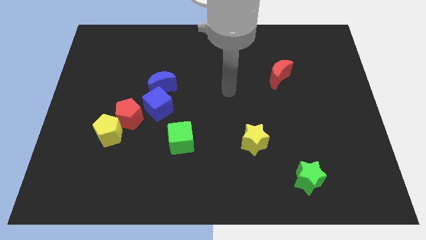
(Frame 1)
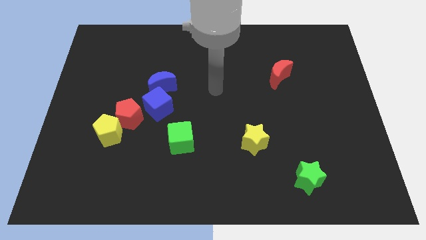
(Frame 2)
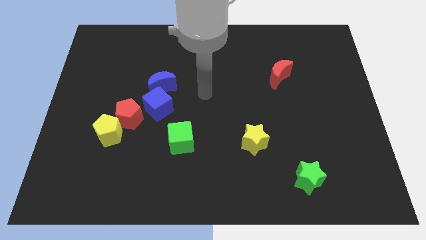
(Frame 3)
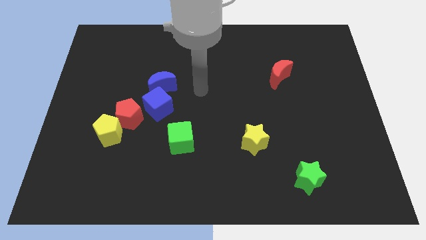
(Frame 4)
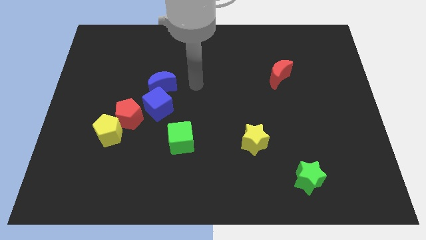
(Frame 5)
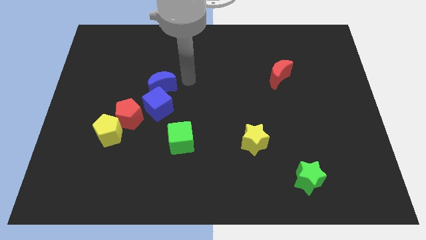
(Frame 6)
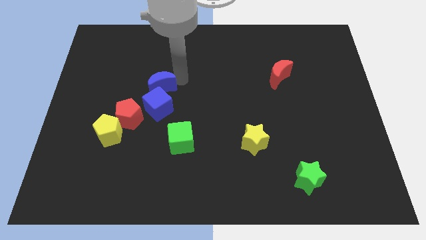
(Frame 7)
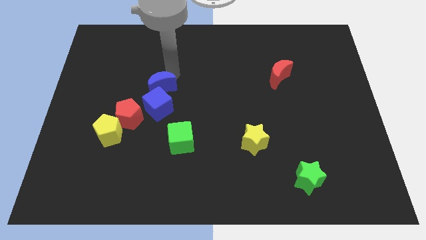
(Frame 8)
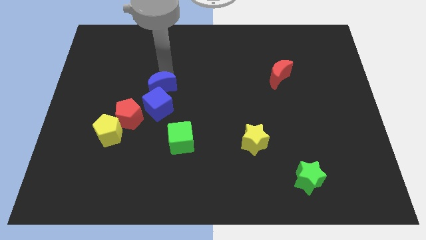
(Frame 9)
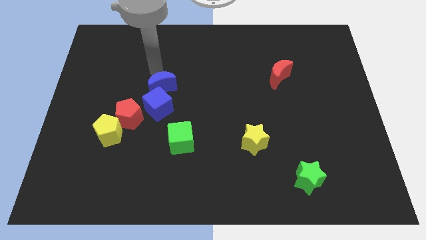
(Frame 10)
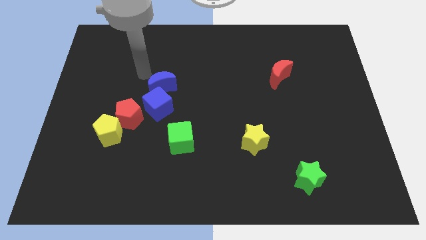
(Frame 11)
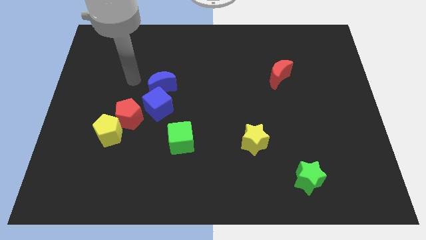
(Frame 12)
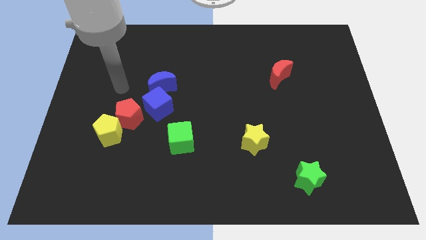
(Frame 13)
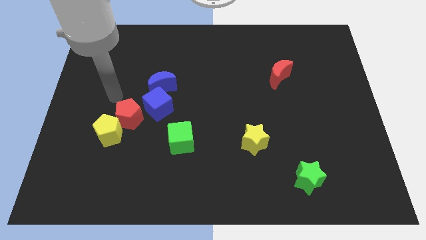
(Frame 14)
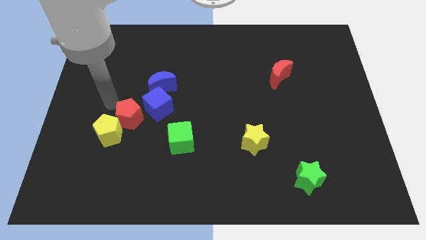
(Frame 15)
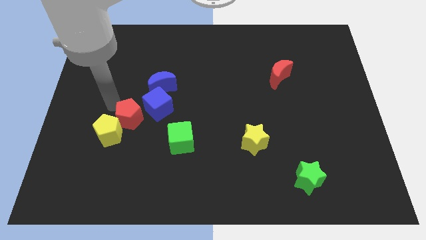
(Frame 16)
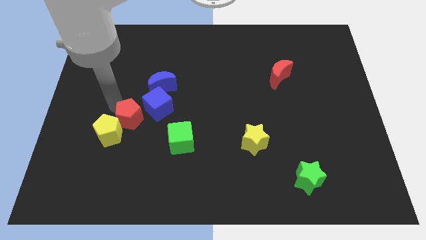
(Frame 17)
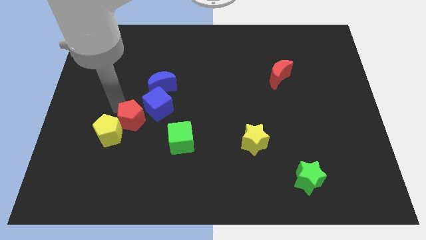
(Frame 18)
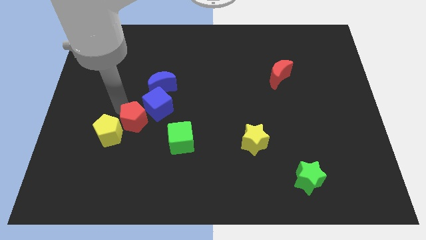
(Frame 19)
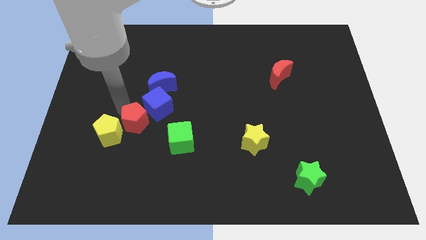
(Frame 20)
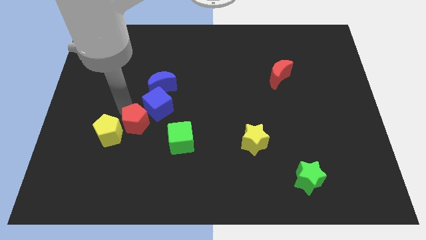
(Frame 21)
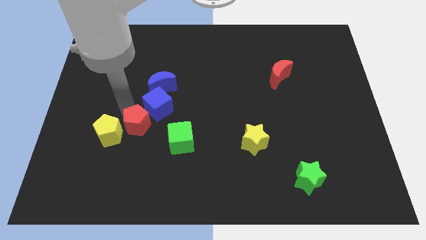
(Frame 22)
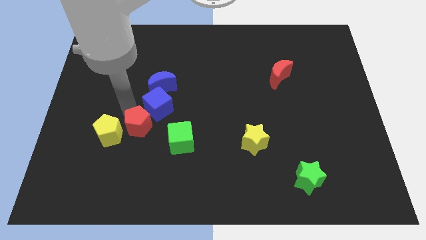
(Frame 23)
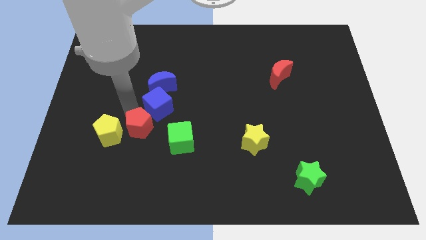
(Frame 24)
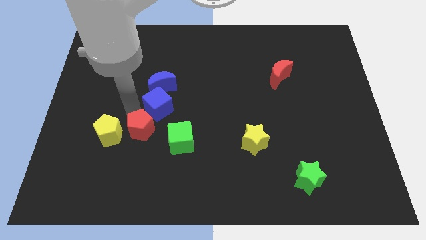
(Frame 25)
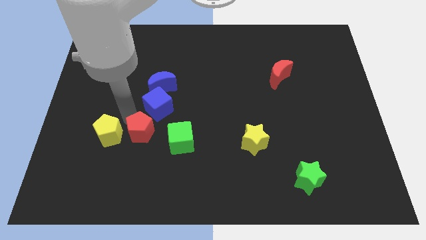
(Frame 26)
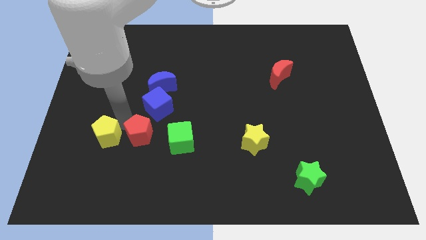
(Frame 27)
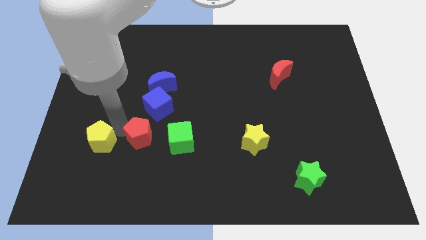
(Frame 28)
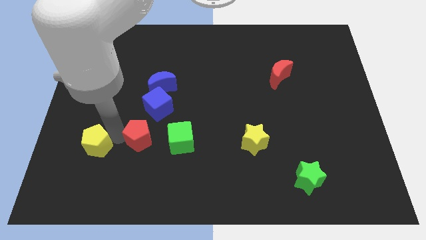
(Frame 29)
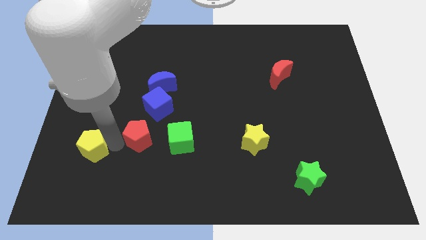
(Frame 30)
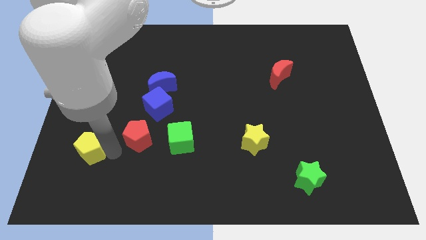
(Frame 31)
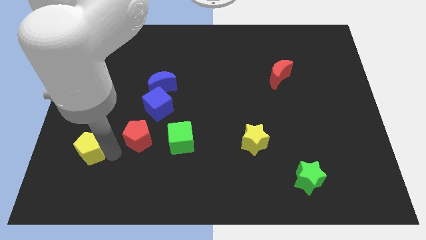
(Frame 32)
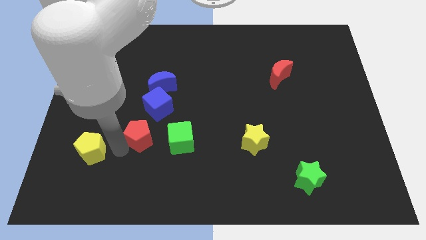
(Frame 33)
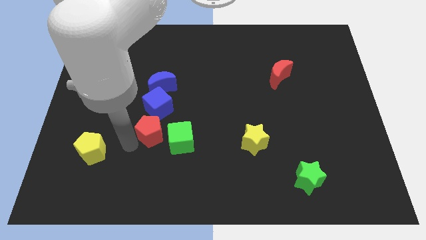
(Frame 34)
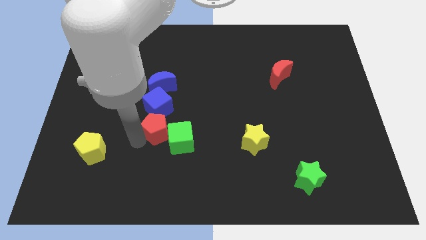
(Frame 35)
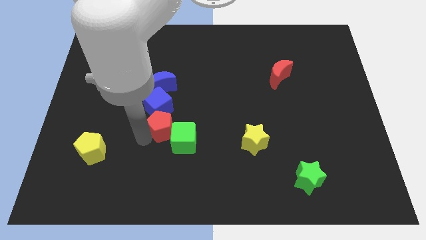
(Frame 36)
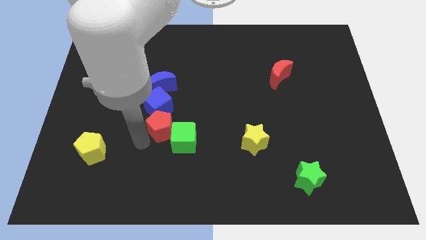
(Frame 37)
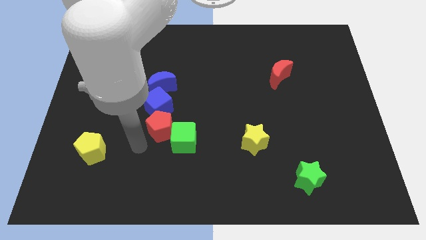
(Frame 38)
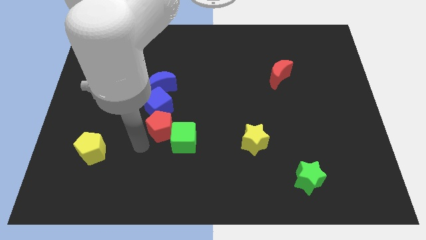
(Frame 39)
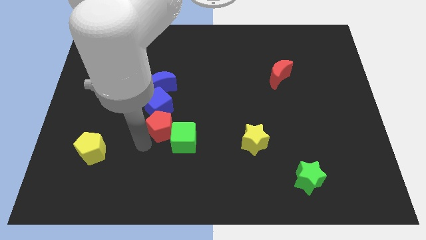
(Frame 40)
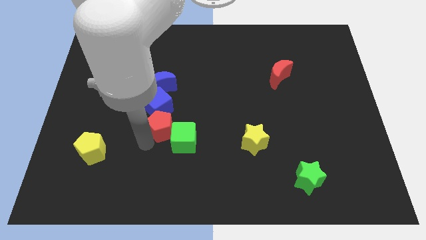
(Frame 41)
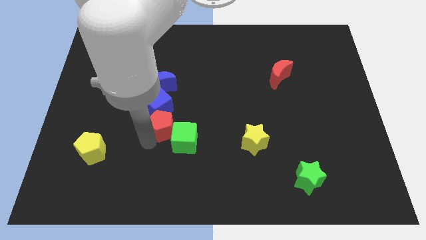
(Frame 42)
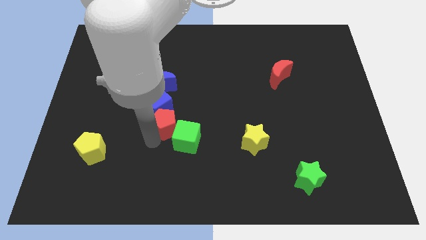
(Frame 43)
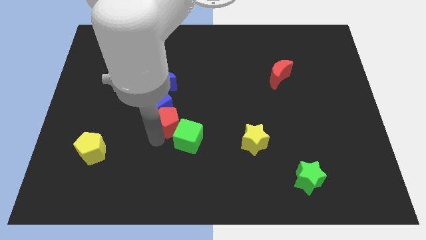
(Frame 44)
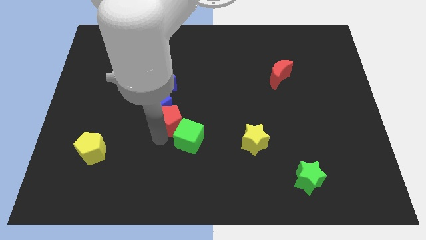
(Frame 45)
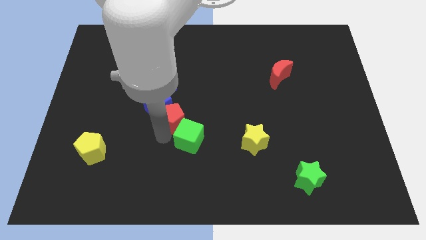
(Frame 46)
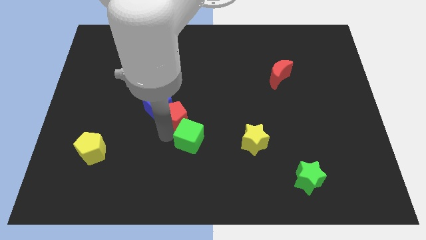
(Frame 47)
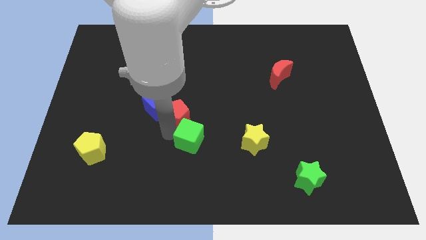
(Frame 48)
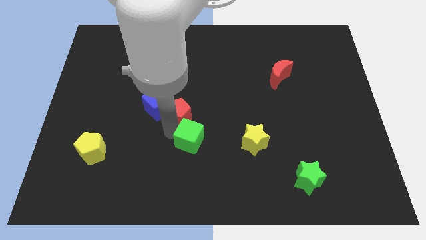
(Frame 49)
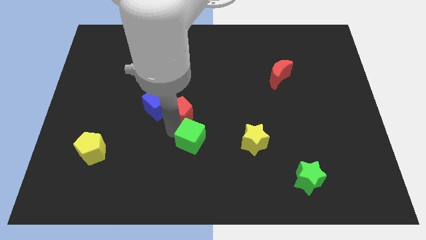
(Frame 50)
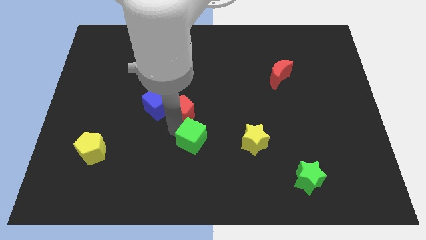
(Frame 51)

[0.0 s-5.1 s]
move the red pentagon somewhat upwards and right diagonally

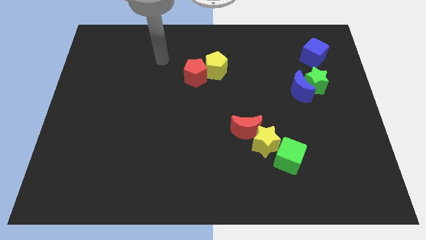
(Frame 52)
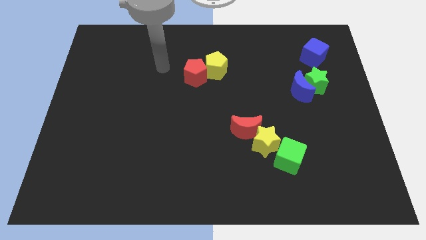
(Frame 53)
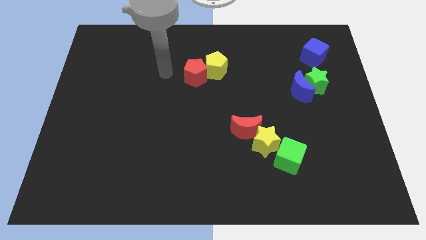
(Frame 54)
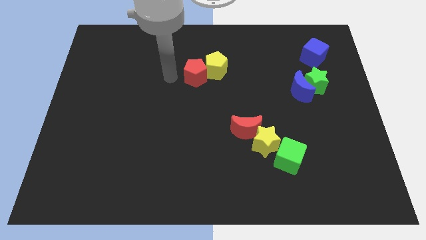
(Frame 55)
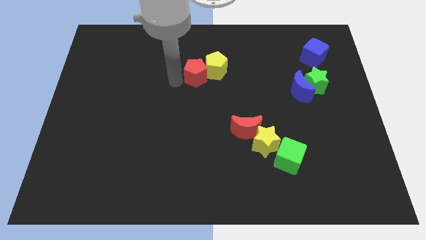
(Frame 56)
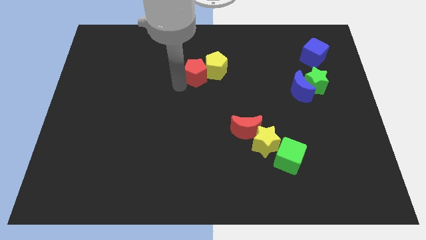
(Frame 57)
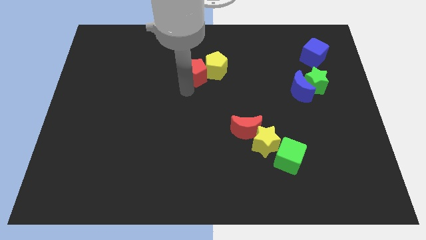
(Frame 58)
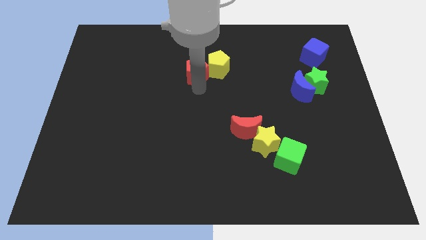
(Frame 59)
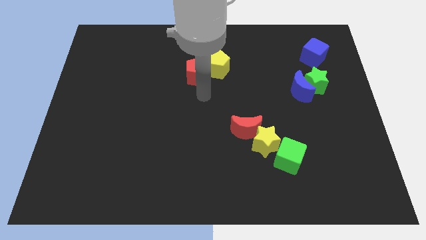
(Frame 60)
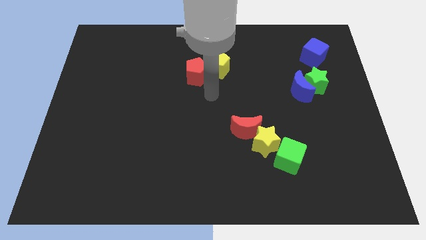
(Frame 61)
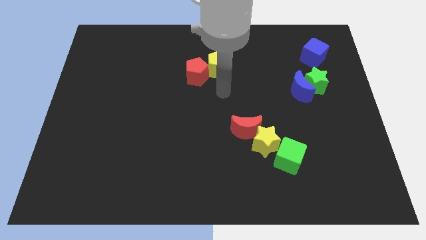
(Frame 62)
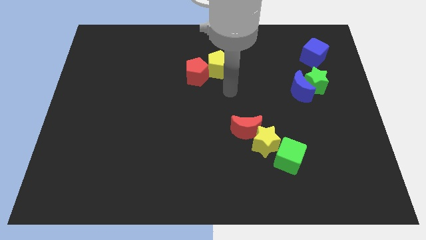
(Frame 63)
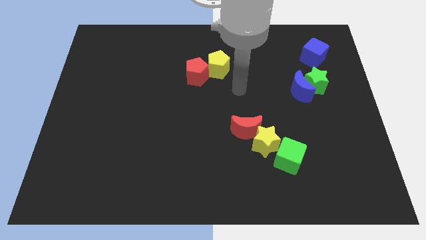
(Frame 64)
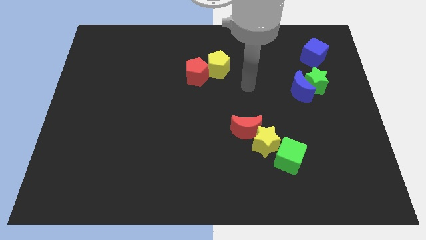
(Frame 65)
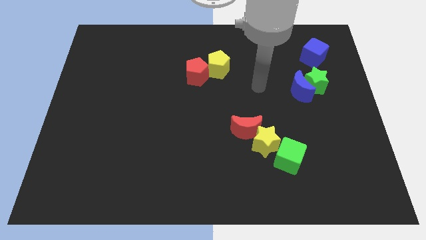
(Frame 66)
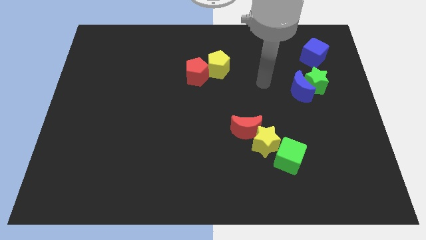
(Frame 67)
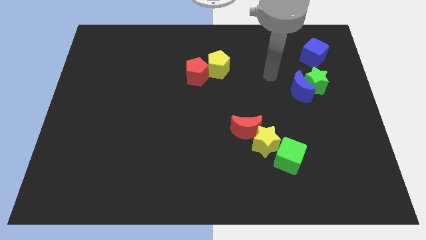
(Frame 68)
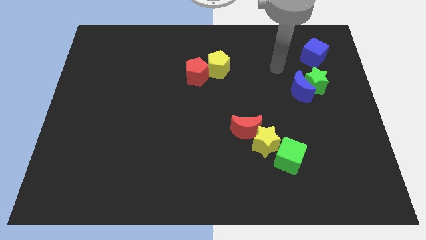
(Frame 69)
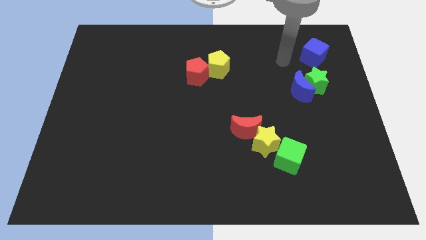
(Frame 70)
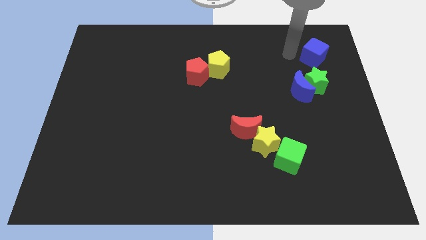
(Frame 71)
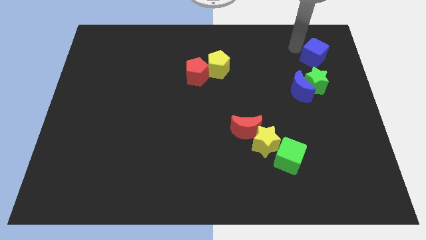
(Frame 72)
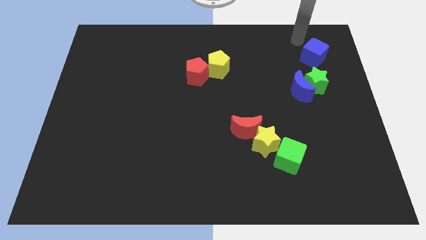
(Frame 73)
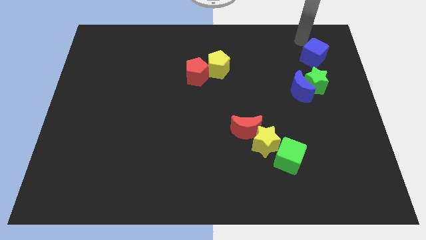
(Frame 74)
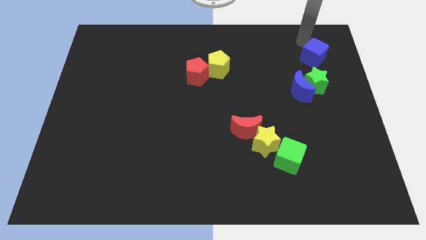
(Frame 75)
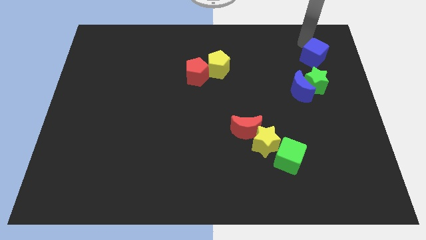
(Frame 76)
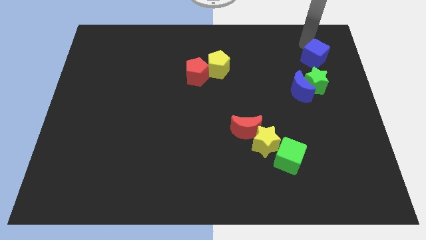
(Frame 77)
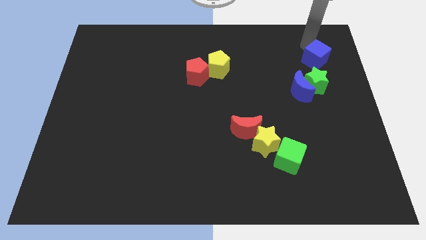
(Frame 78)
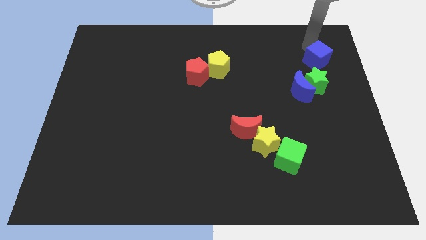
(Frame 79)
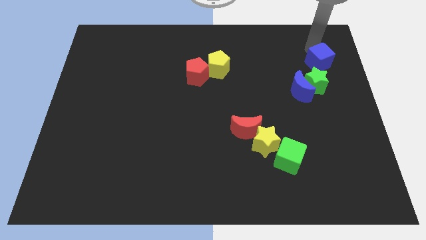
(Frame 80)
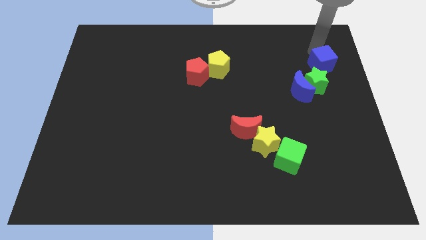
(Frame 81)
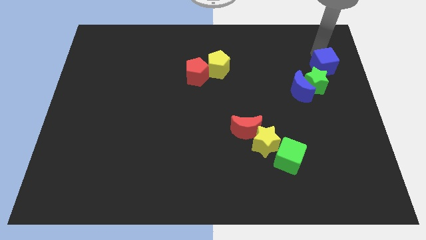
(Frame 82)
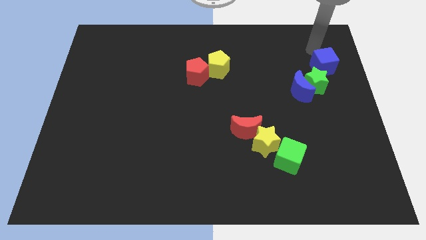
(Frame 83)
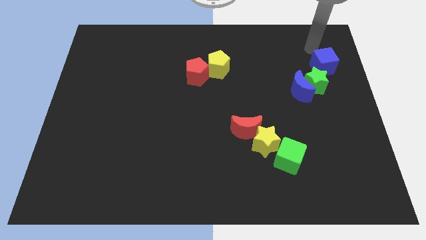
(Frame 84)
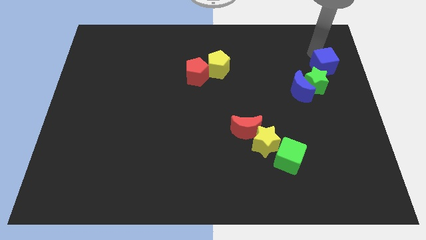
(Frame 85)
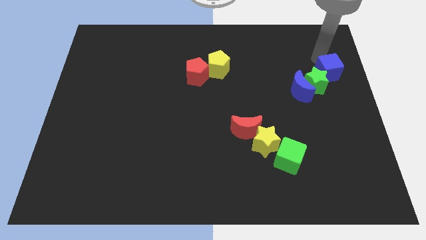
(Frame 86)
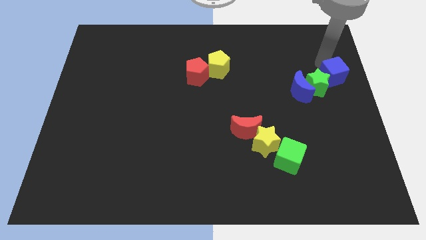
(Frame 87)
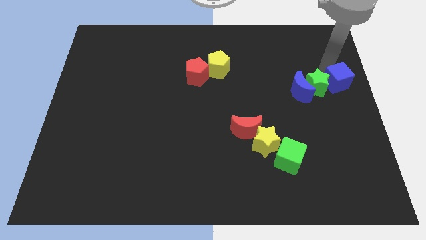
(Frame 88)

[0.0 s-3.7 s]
slightly move the blue cube down
